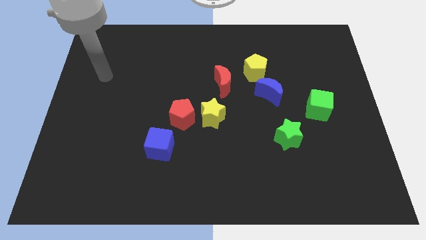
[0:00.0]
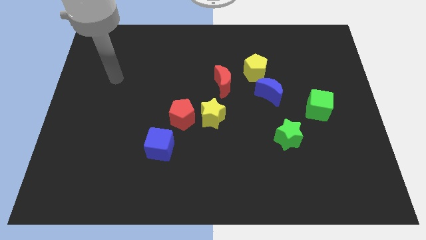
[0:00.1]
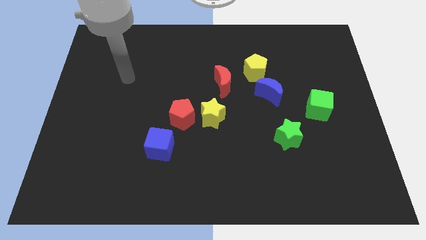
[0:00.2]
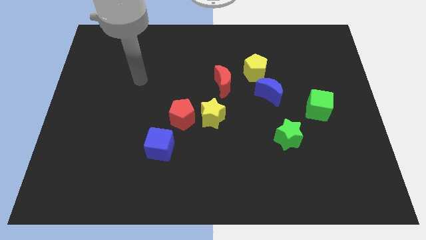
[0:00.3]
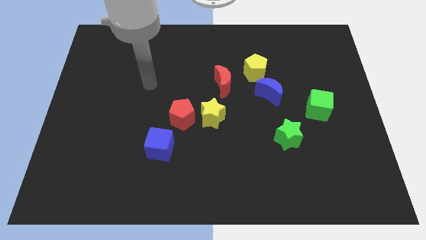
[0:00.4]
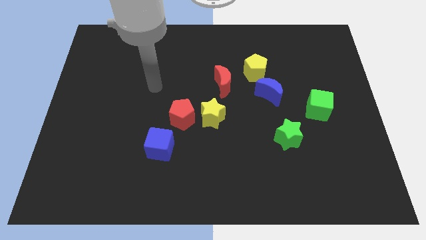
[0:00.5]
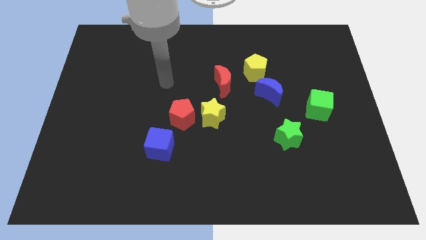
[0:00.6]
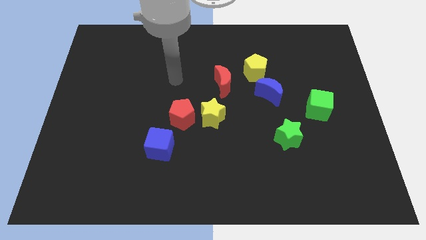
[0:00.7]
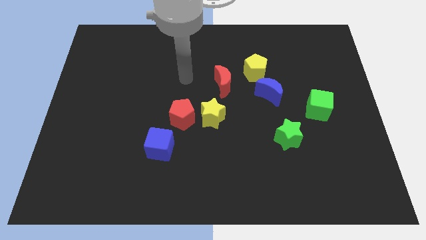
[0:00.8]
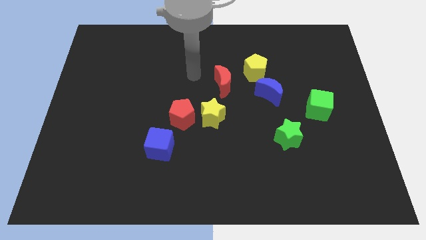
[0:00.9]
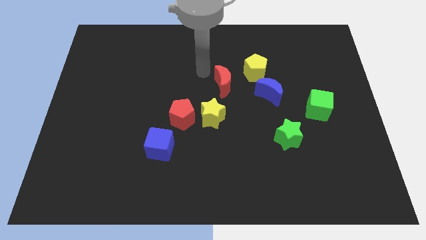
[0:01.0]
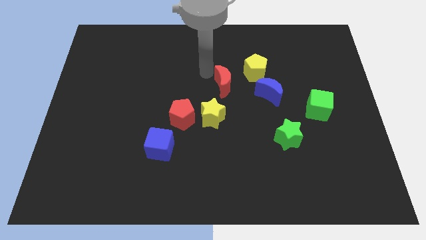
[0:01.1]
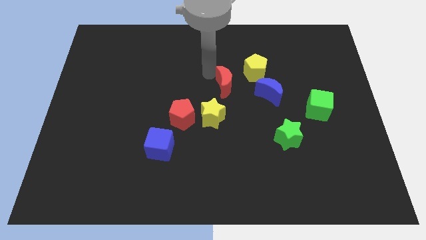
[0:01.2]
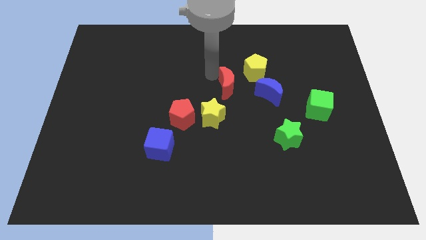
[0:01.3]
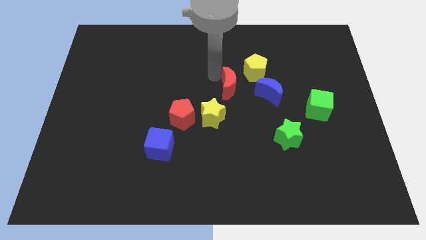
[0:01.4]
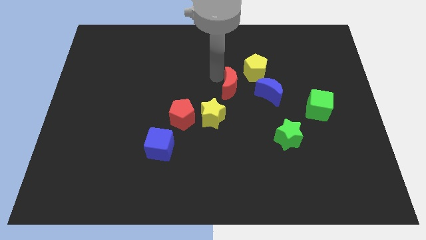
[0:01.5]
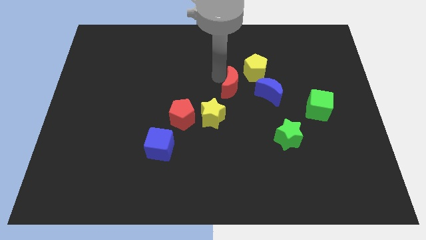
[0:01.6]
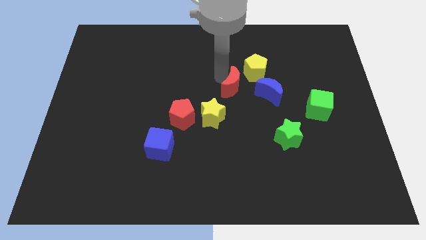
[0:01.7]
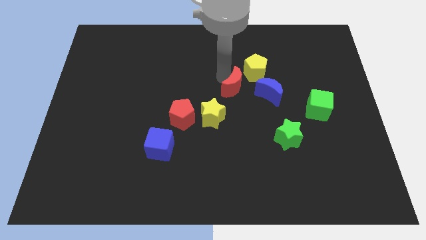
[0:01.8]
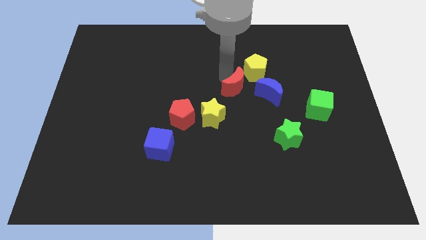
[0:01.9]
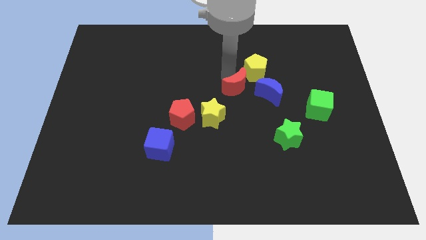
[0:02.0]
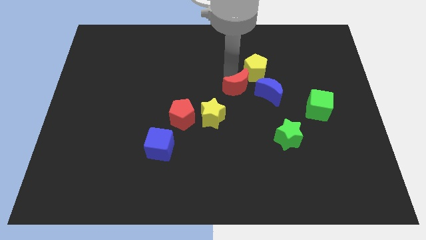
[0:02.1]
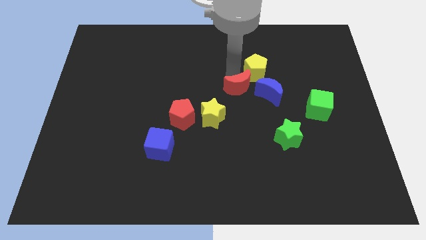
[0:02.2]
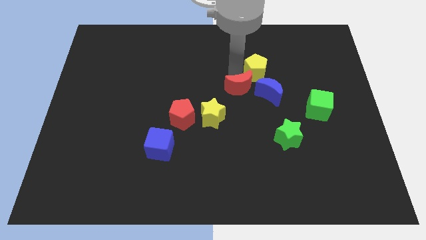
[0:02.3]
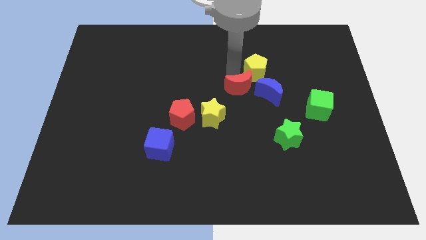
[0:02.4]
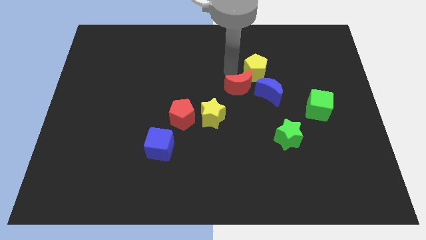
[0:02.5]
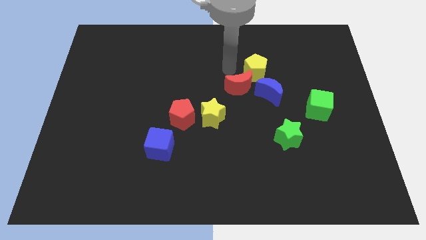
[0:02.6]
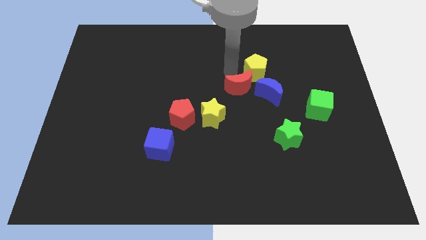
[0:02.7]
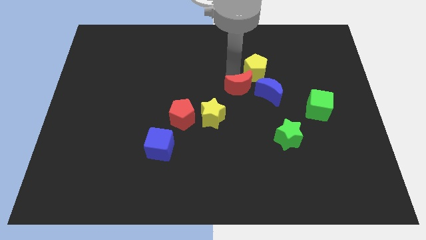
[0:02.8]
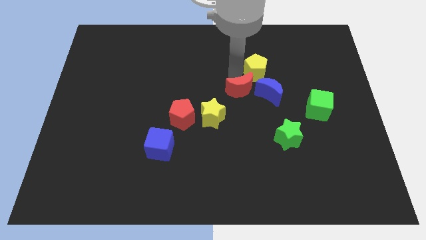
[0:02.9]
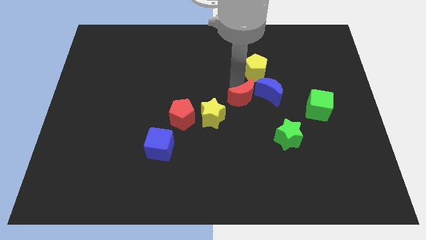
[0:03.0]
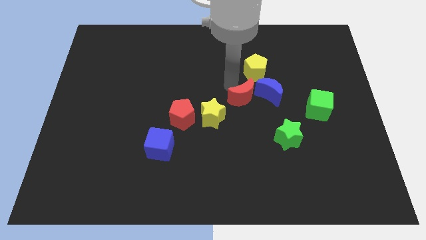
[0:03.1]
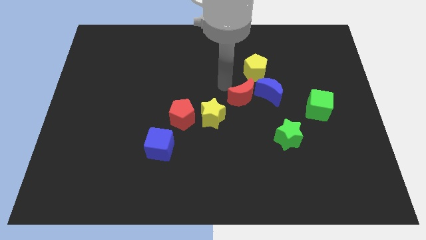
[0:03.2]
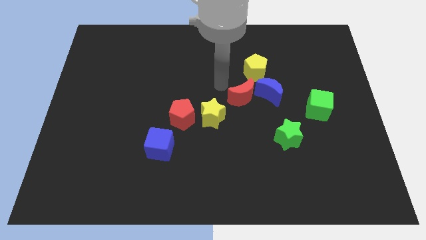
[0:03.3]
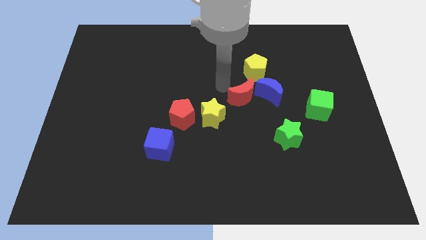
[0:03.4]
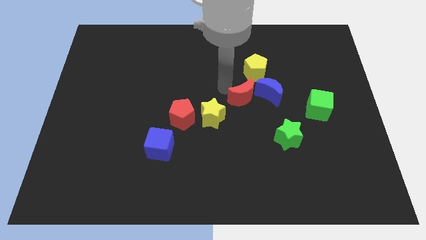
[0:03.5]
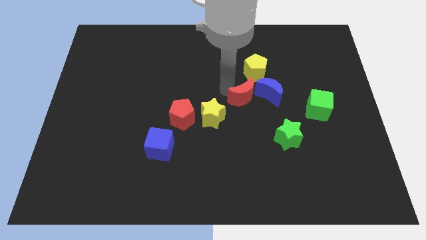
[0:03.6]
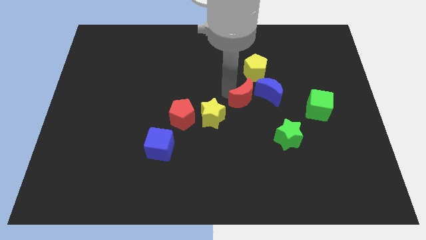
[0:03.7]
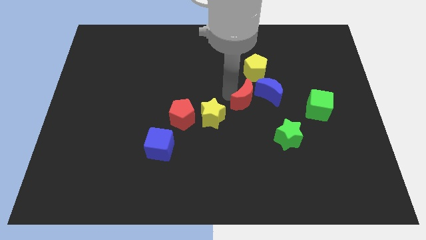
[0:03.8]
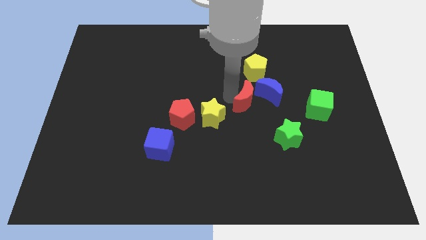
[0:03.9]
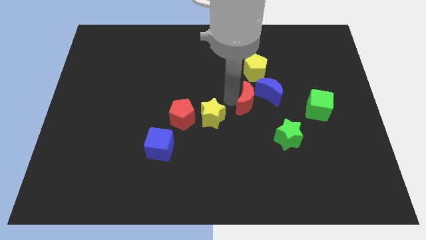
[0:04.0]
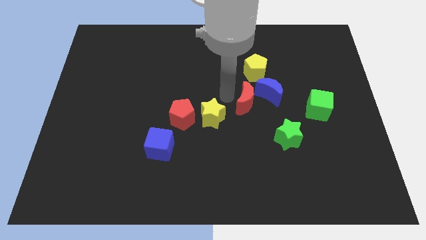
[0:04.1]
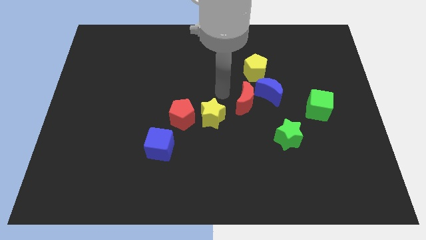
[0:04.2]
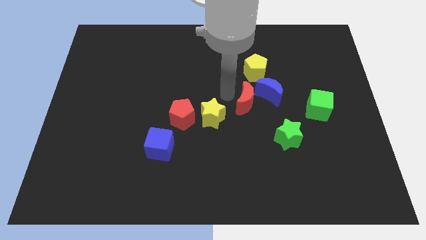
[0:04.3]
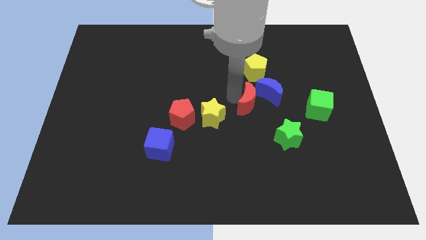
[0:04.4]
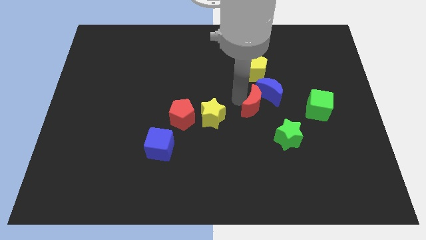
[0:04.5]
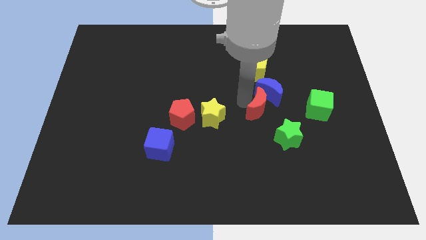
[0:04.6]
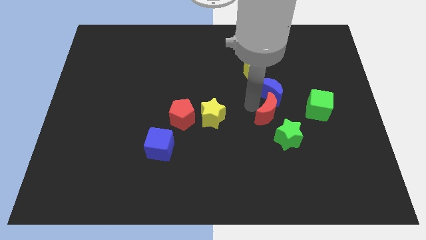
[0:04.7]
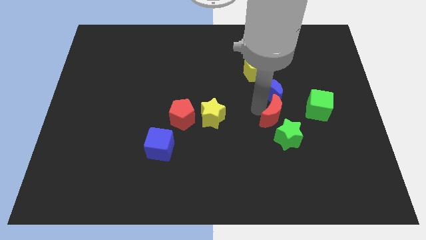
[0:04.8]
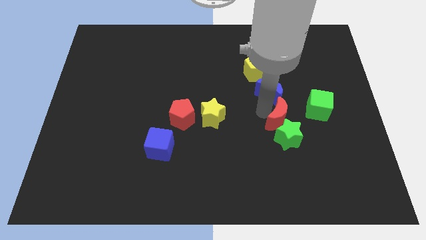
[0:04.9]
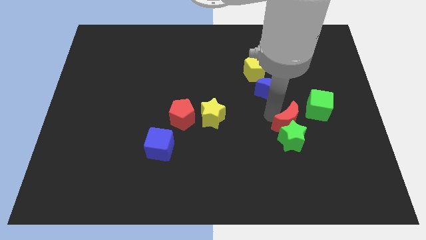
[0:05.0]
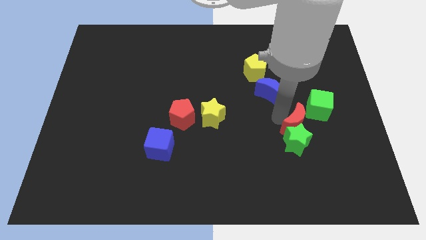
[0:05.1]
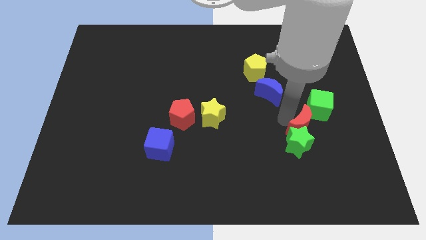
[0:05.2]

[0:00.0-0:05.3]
push the red moon downwards and to the right diagonally

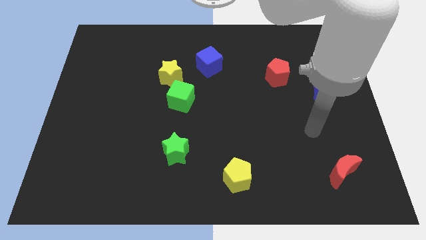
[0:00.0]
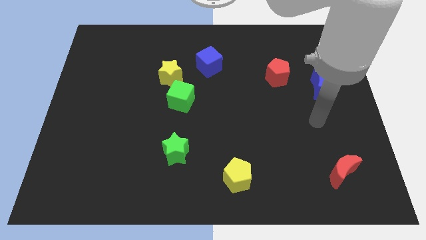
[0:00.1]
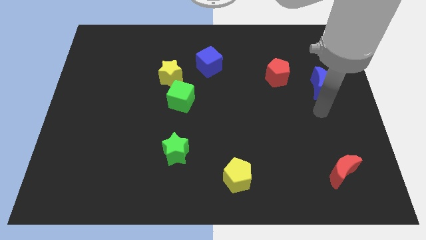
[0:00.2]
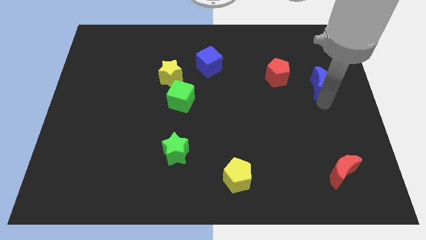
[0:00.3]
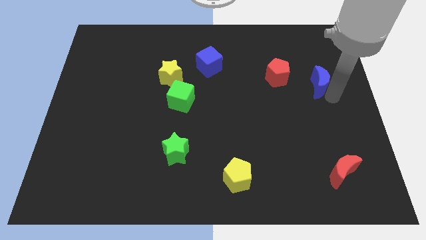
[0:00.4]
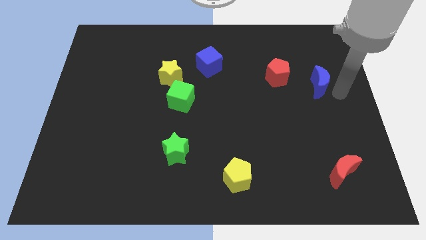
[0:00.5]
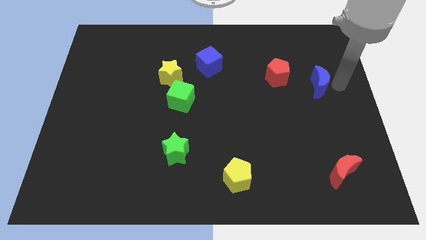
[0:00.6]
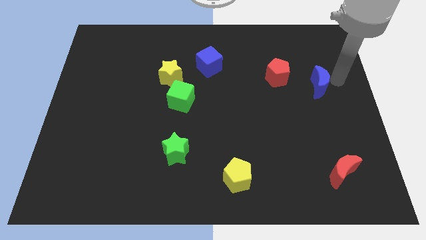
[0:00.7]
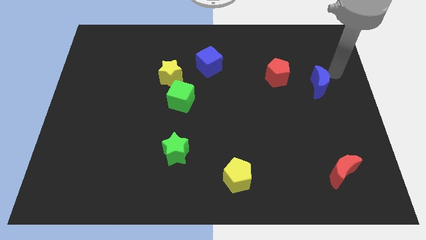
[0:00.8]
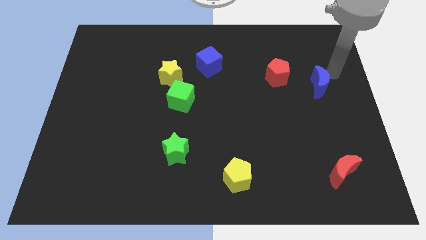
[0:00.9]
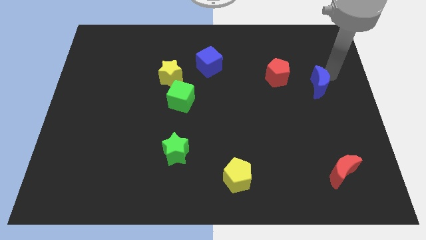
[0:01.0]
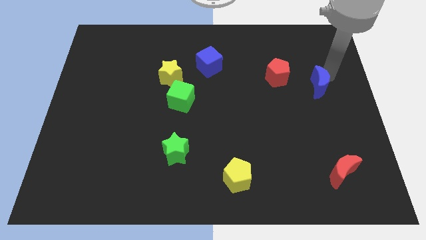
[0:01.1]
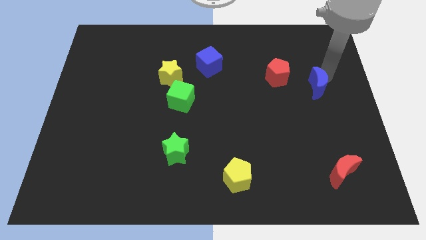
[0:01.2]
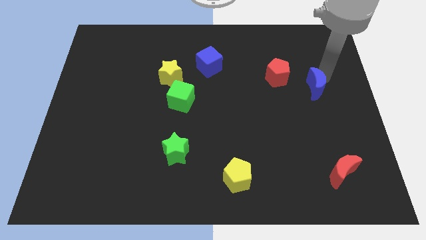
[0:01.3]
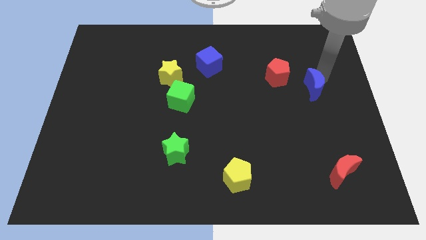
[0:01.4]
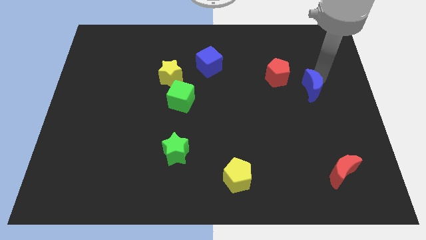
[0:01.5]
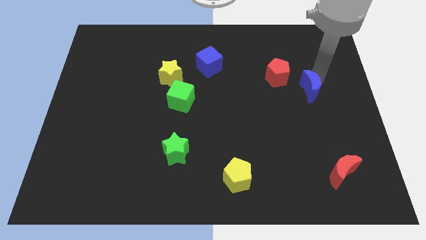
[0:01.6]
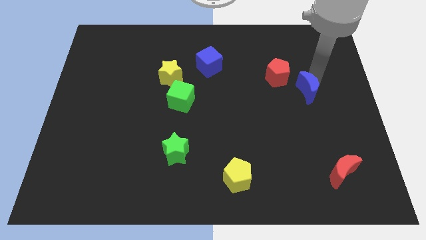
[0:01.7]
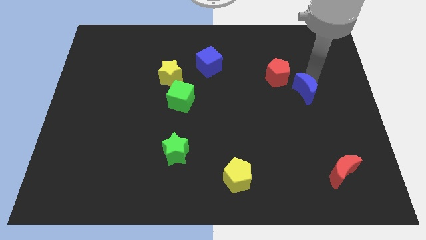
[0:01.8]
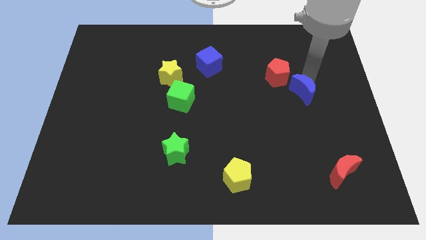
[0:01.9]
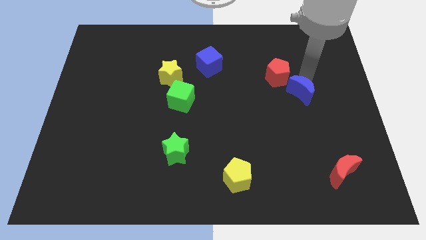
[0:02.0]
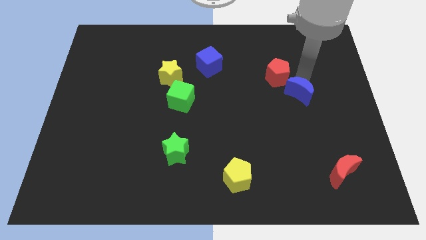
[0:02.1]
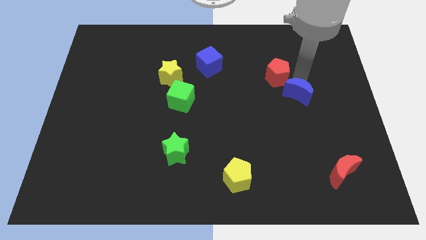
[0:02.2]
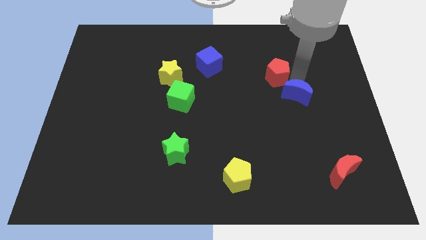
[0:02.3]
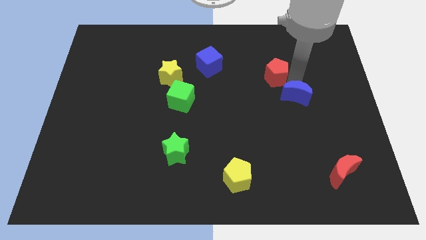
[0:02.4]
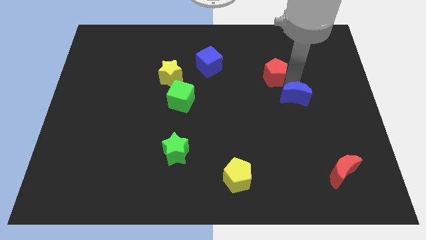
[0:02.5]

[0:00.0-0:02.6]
push the blue moon down and to the left a little

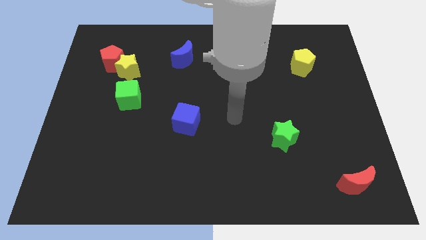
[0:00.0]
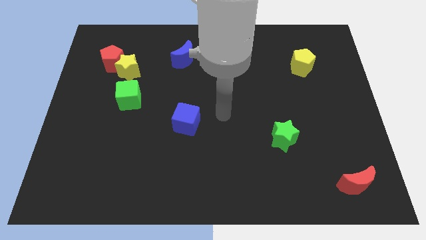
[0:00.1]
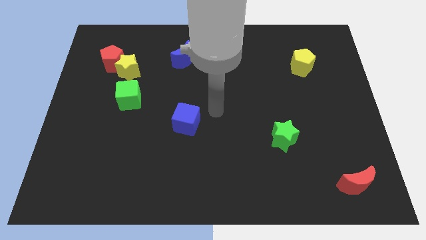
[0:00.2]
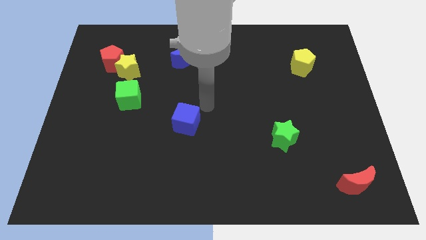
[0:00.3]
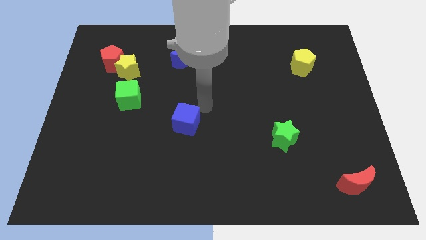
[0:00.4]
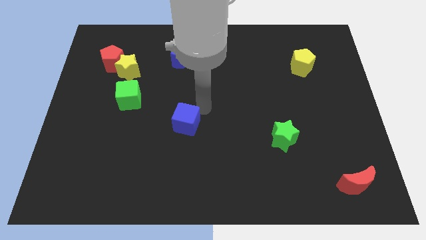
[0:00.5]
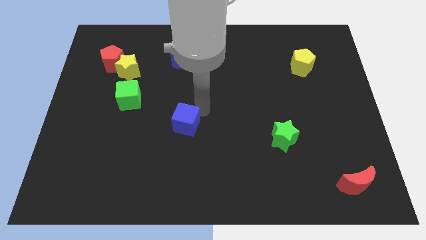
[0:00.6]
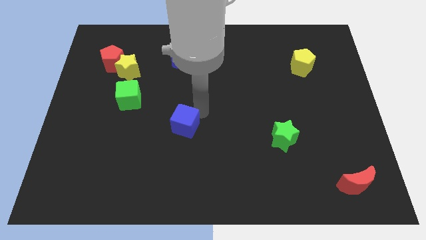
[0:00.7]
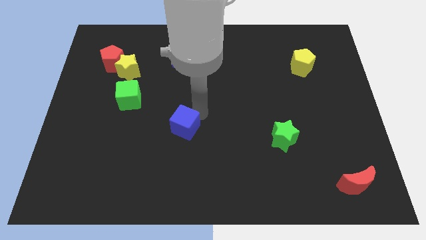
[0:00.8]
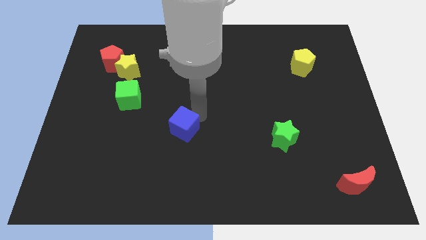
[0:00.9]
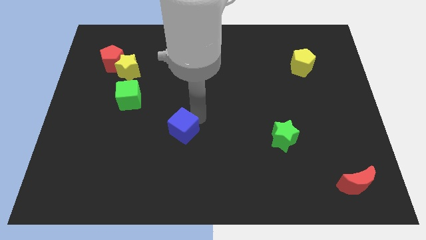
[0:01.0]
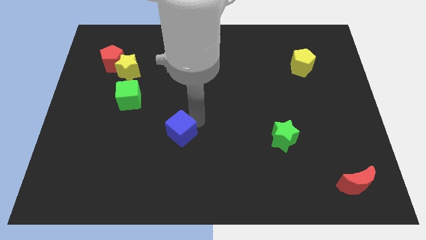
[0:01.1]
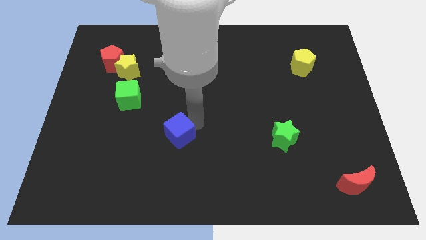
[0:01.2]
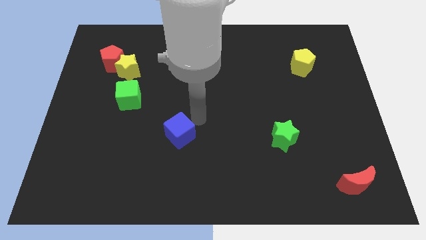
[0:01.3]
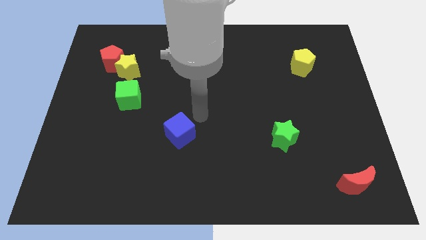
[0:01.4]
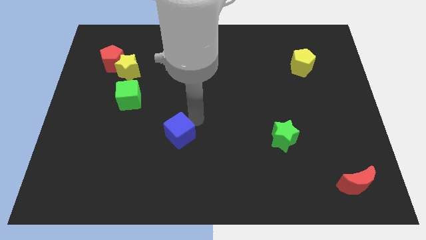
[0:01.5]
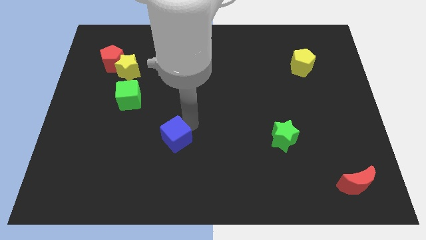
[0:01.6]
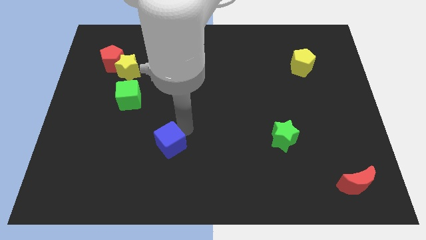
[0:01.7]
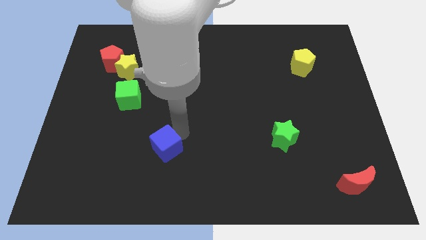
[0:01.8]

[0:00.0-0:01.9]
move the blue cube a little bit downwards and left diagonally
